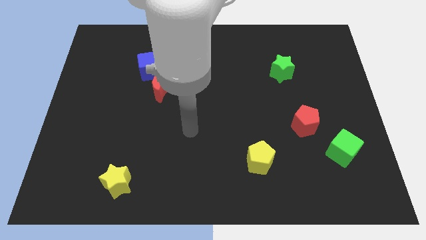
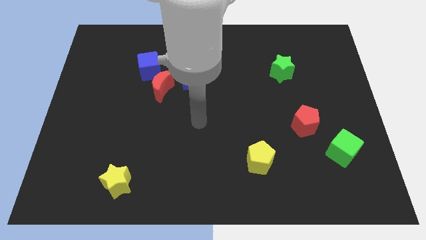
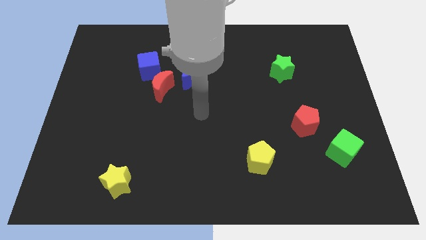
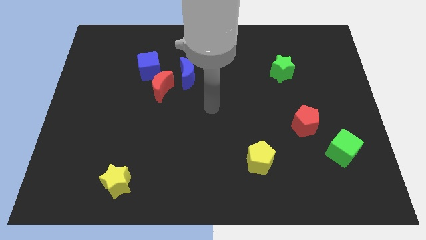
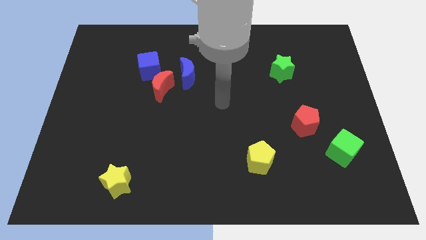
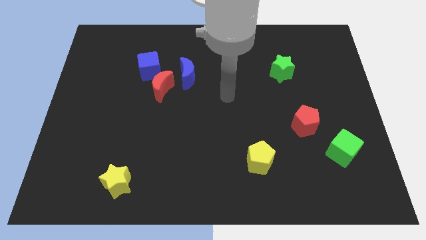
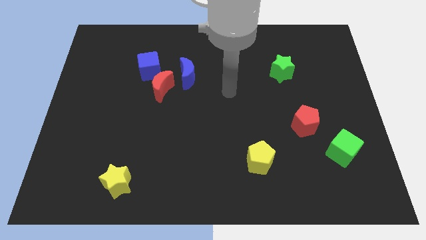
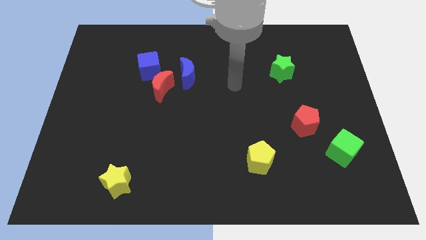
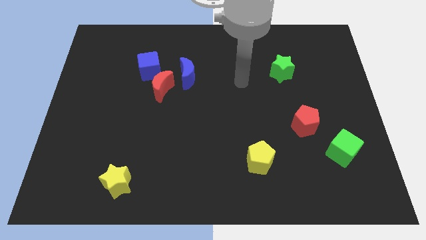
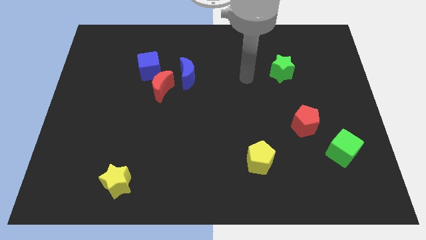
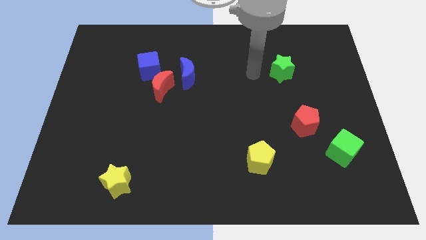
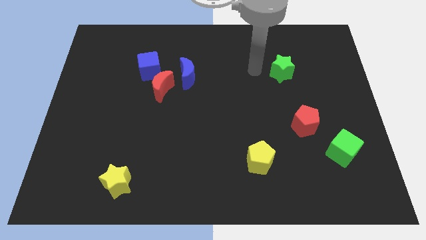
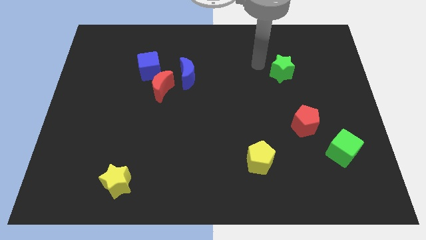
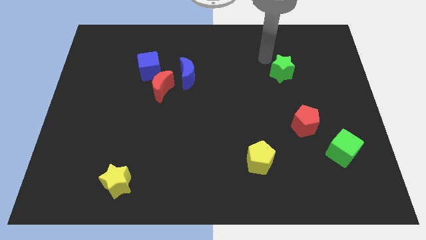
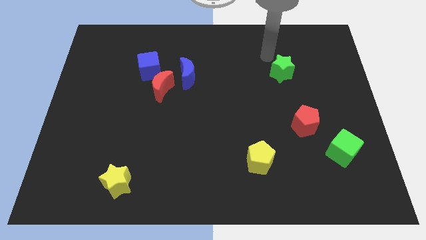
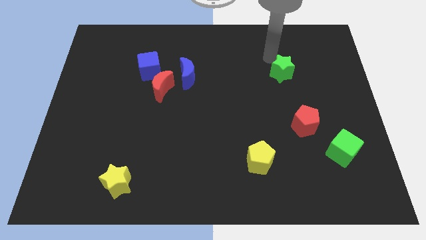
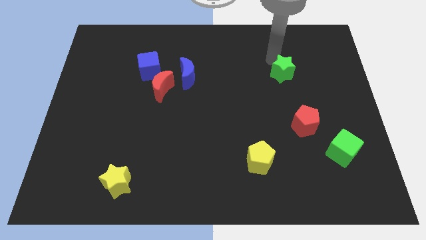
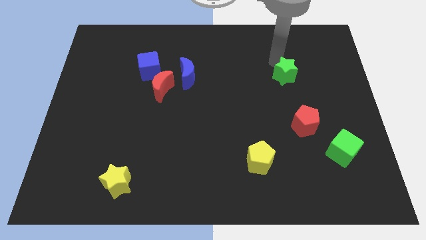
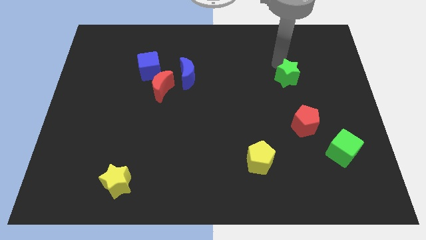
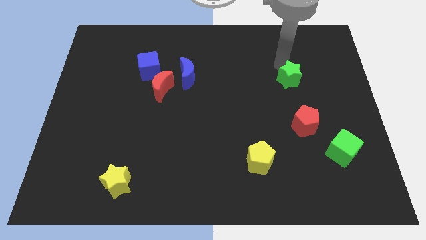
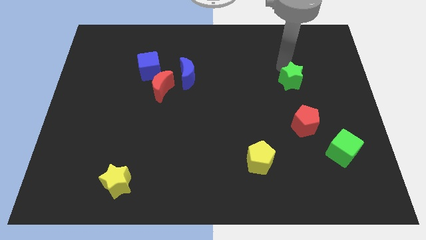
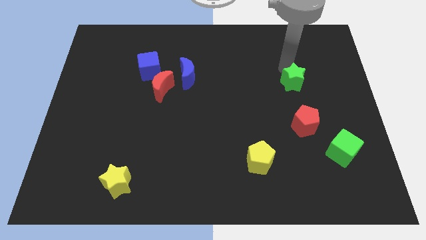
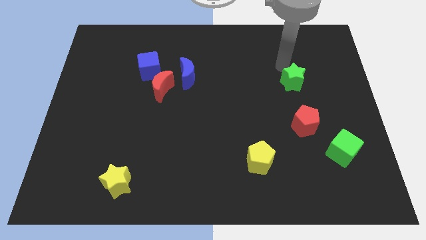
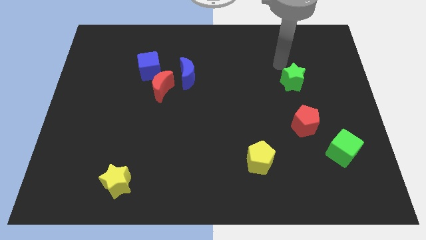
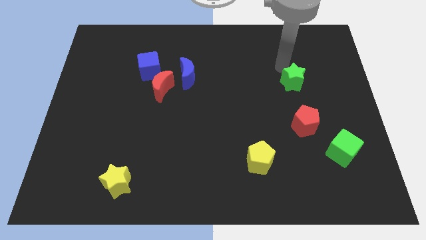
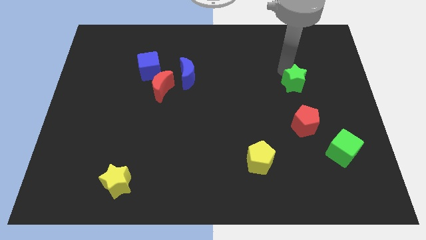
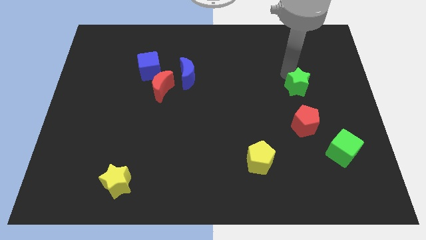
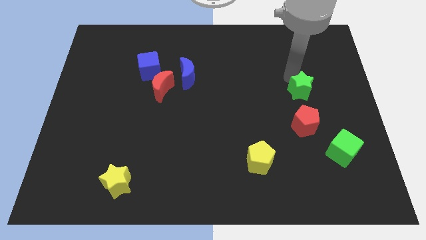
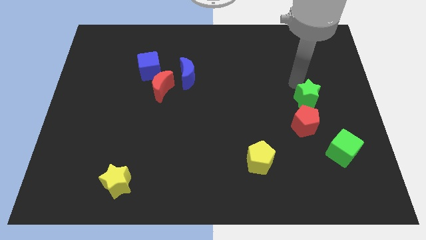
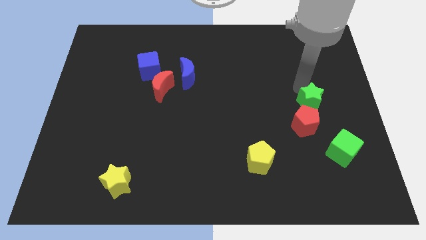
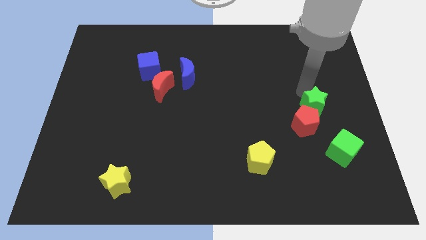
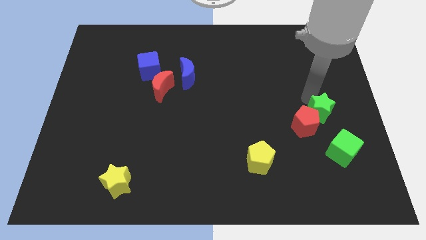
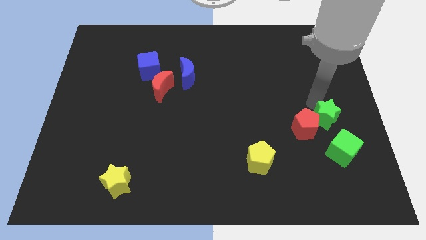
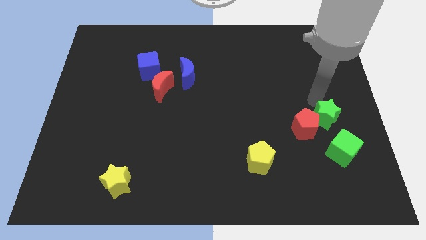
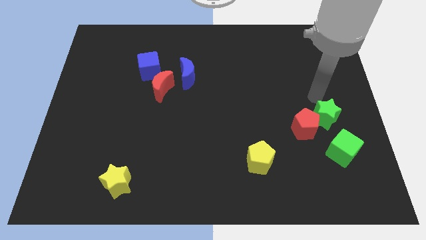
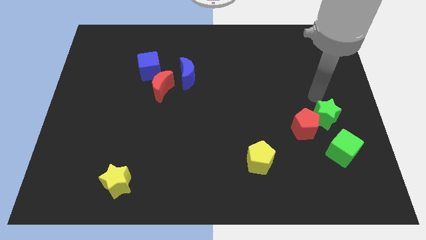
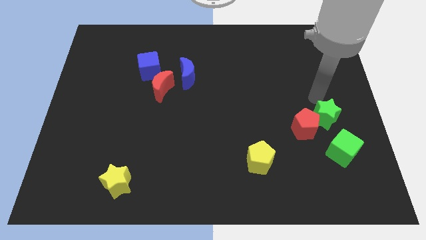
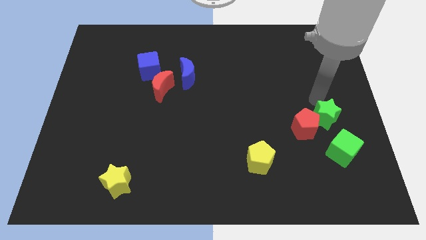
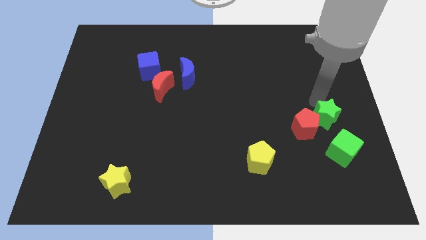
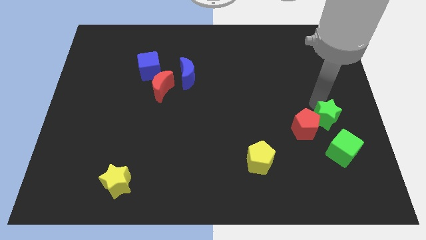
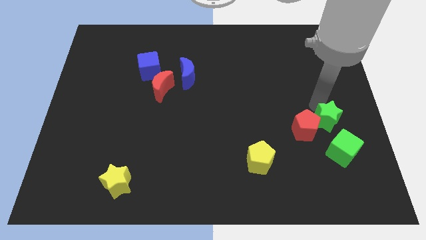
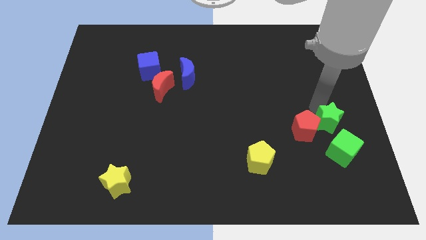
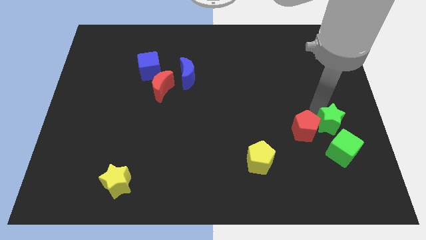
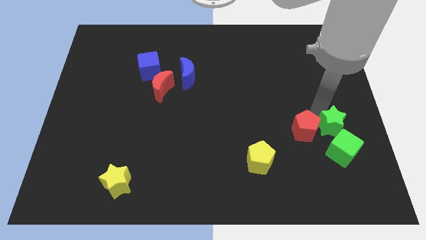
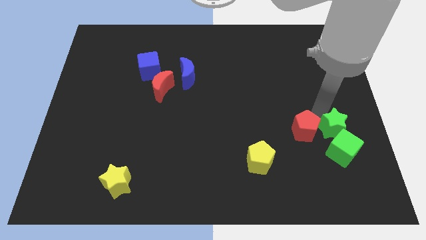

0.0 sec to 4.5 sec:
push the green star close to the green cube

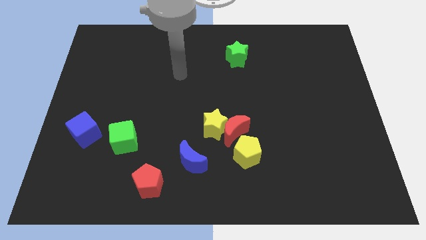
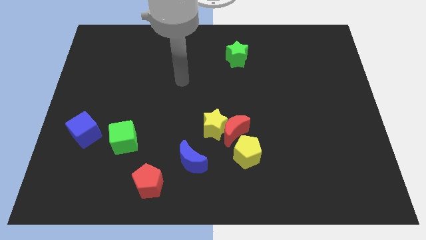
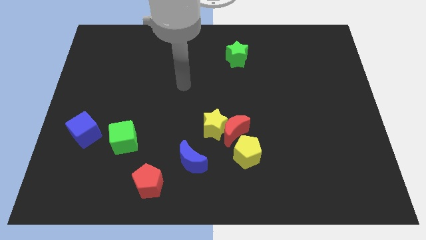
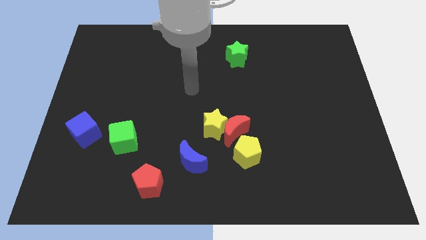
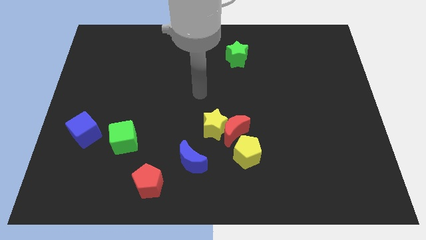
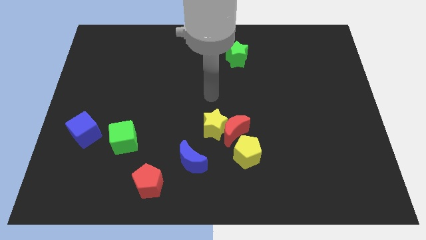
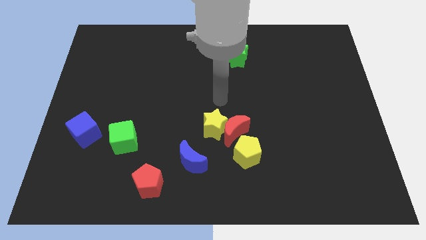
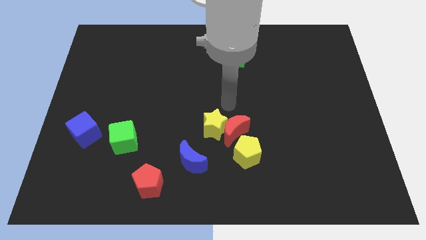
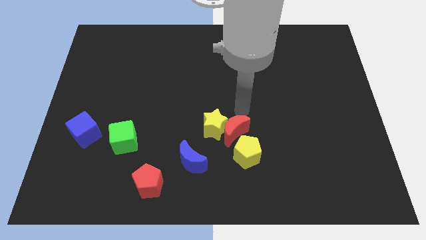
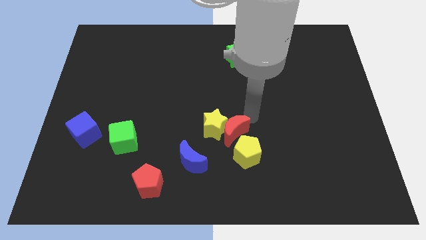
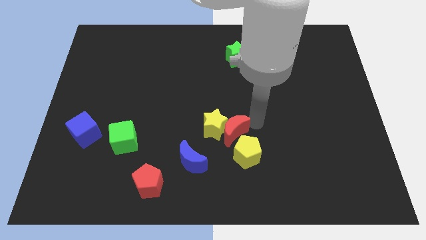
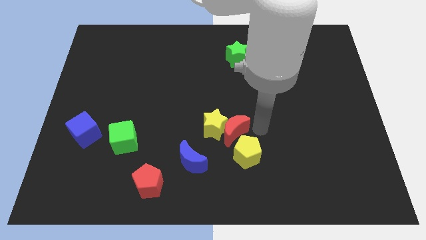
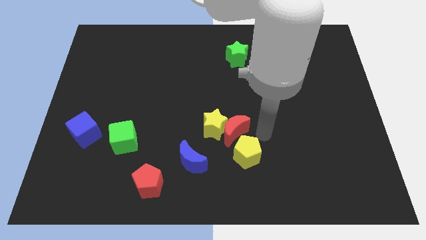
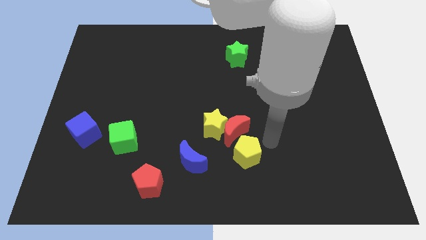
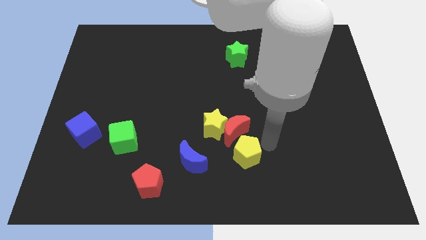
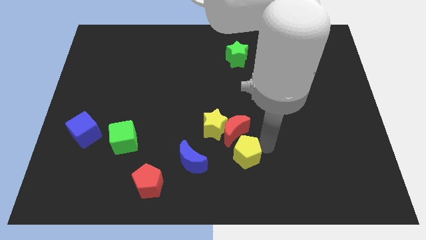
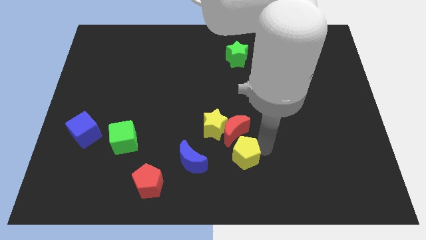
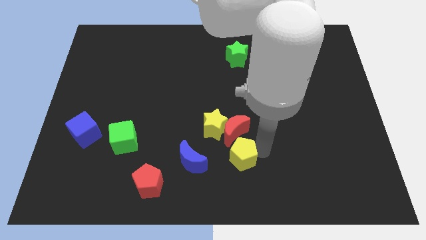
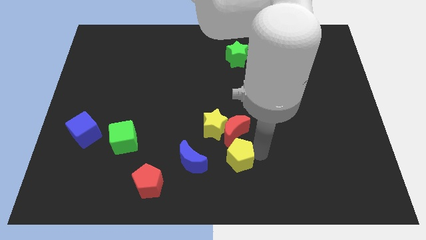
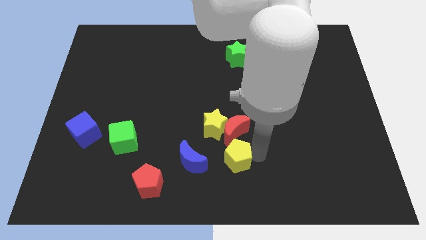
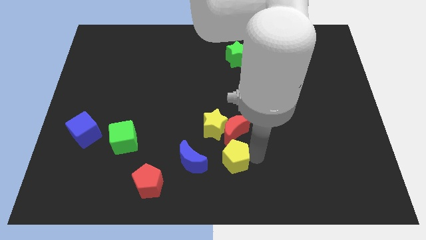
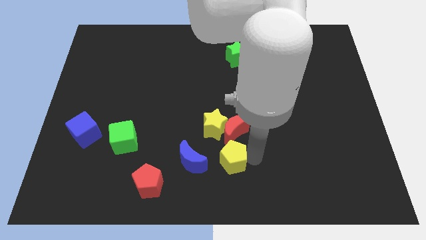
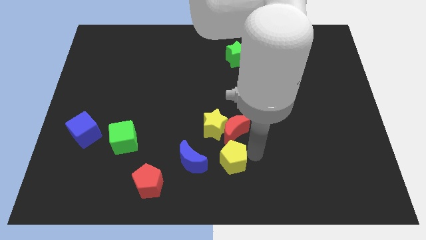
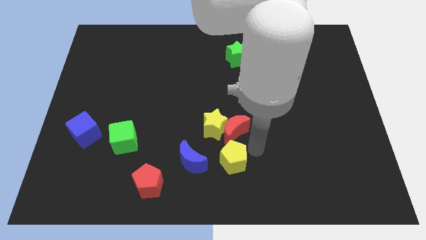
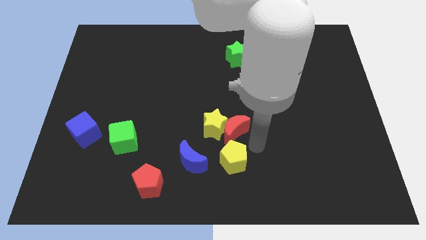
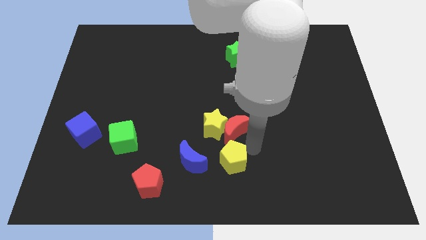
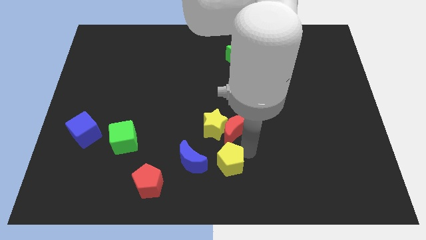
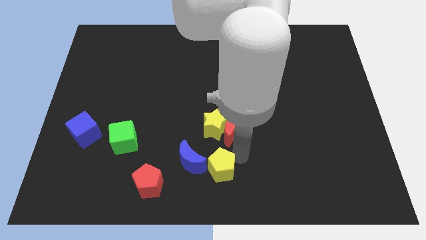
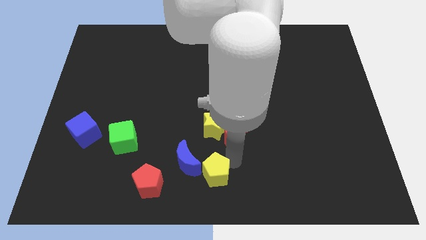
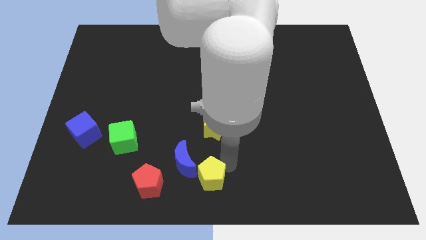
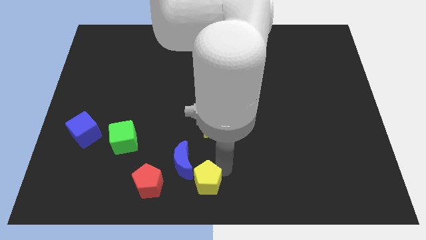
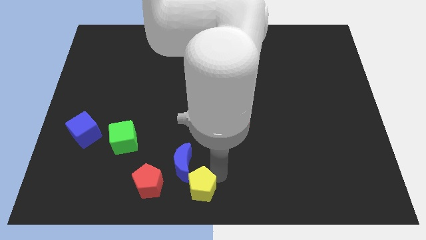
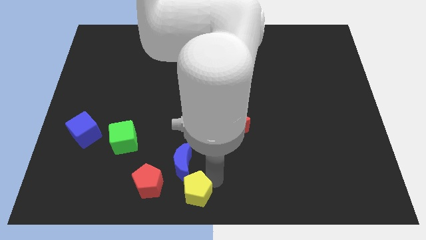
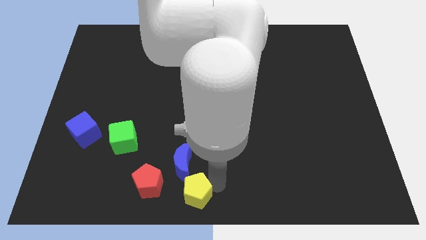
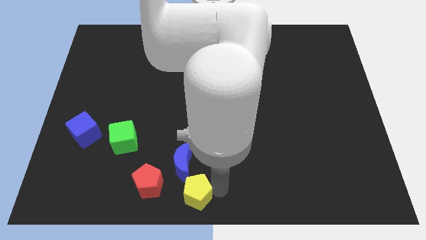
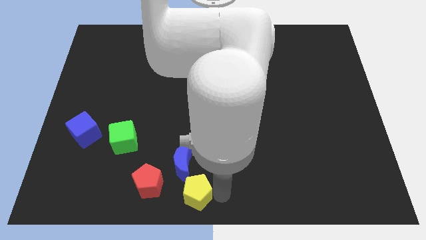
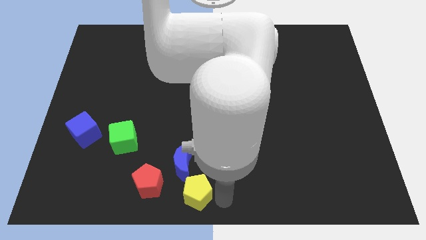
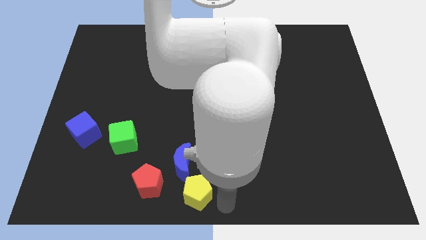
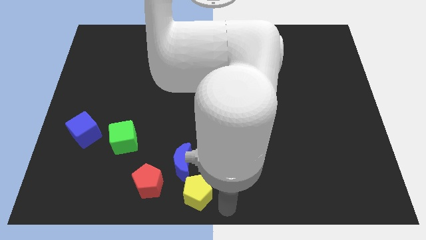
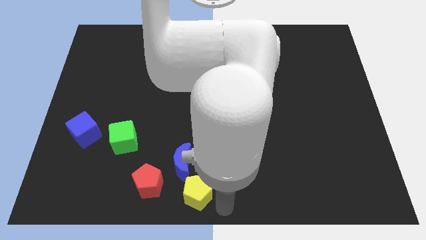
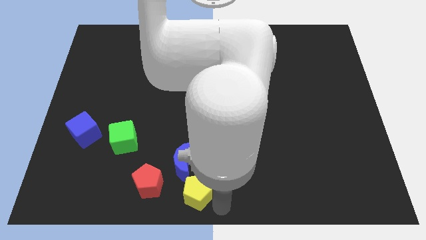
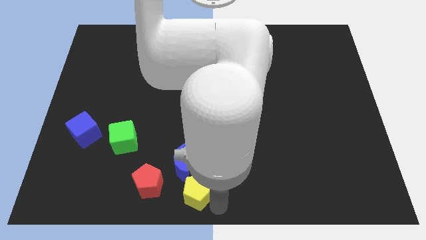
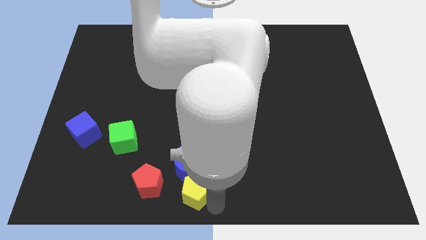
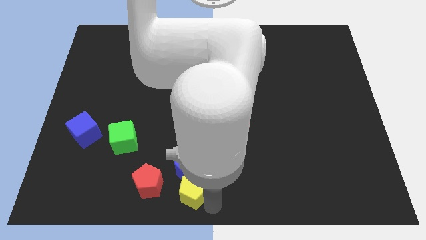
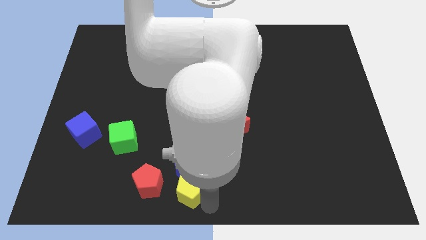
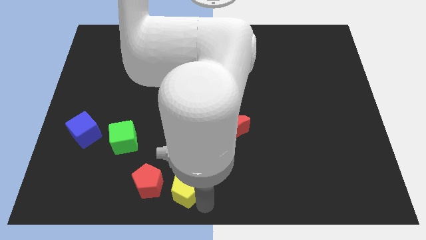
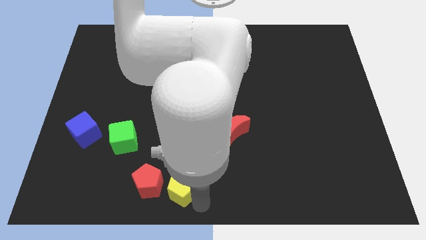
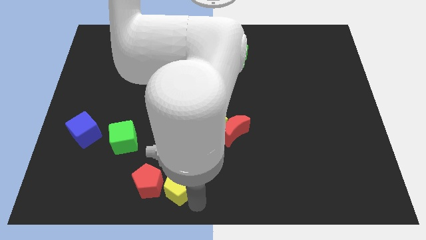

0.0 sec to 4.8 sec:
slide the yellow pentagon to the red pentagon
